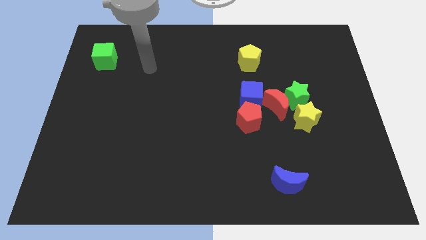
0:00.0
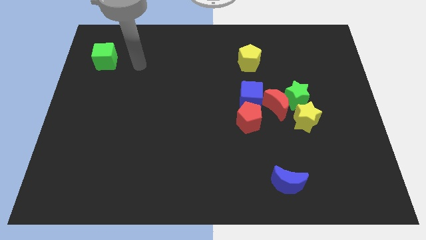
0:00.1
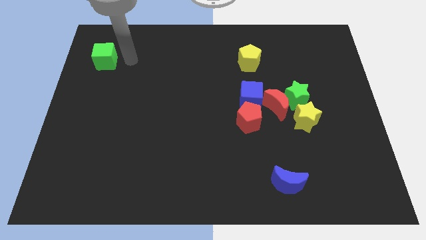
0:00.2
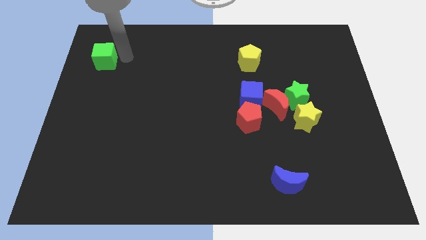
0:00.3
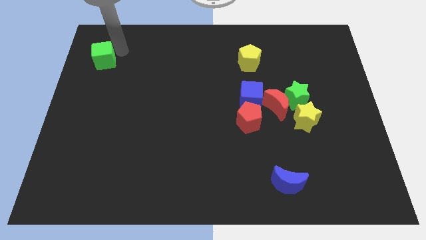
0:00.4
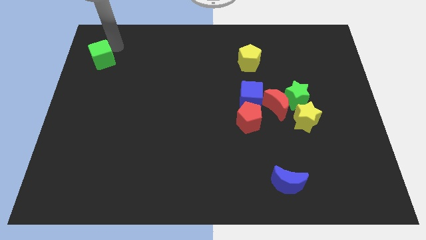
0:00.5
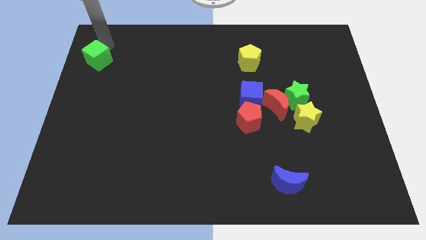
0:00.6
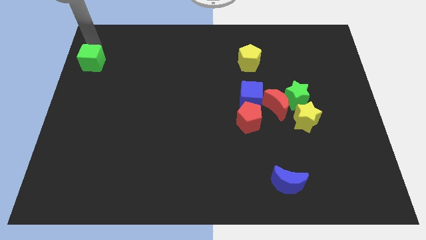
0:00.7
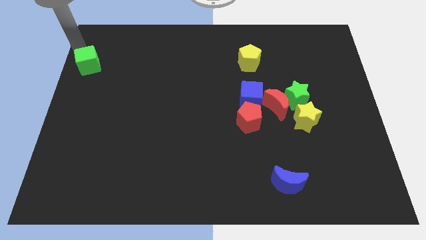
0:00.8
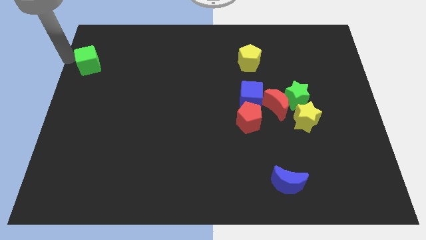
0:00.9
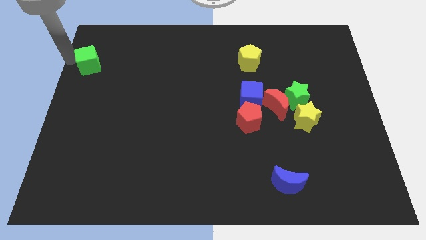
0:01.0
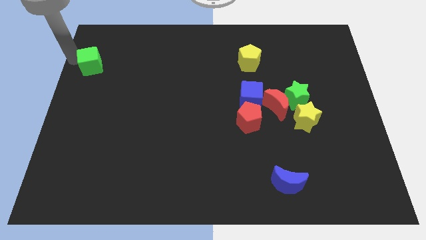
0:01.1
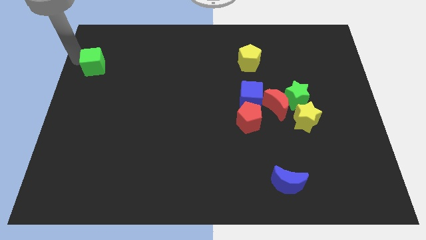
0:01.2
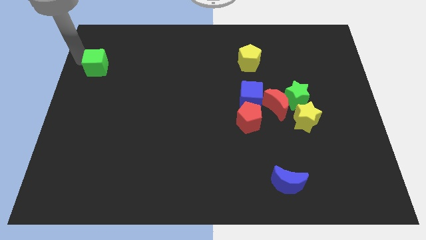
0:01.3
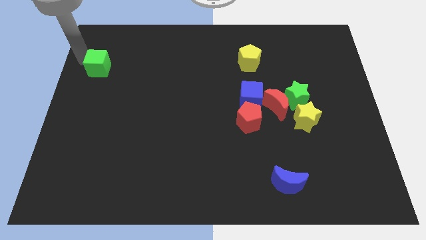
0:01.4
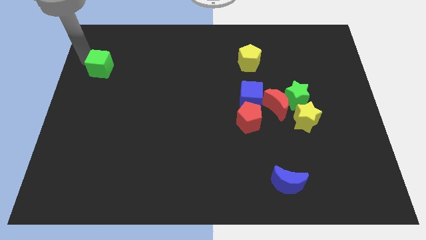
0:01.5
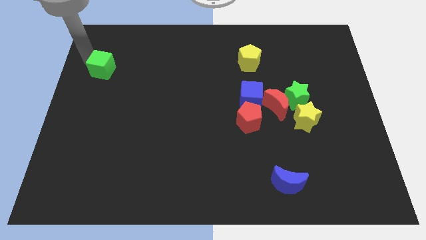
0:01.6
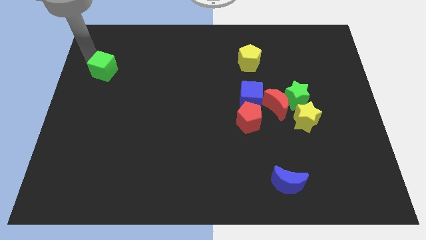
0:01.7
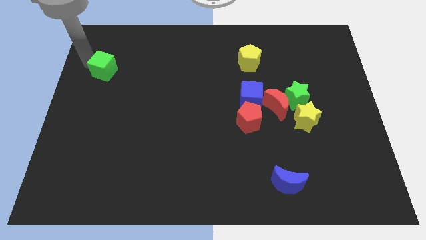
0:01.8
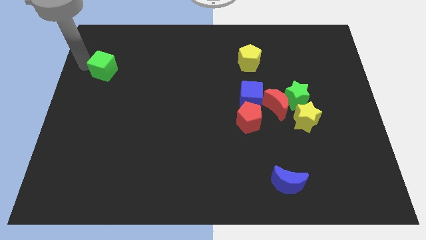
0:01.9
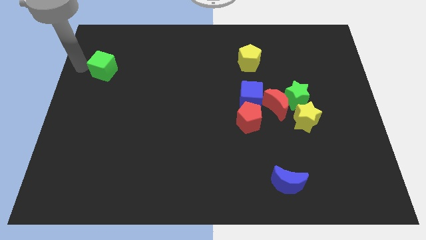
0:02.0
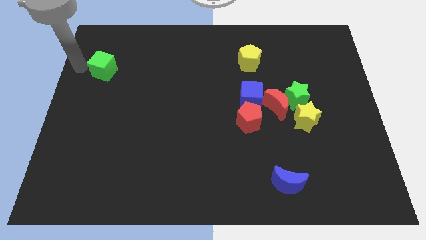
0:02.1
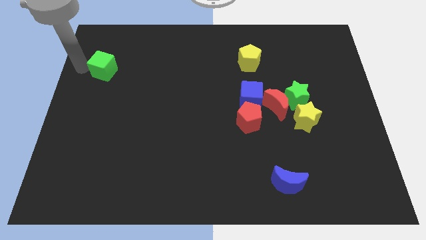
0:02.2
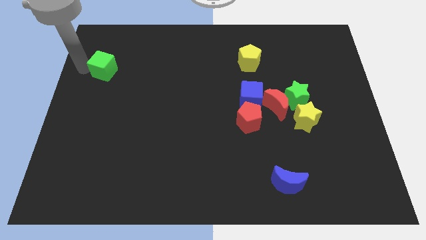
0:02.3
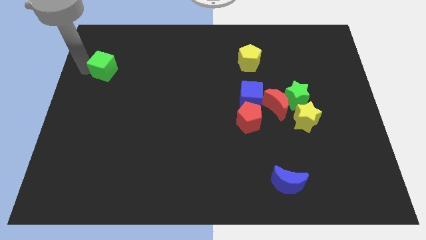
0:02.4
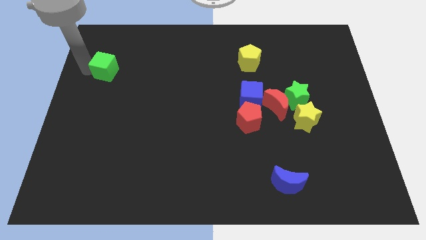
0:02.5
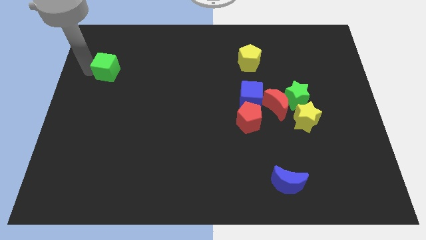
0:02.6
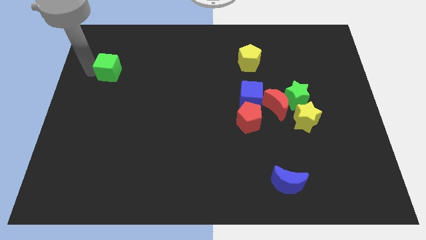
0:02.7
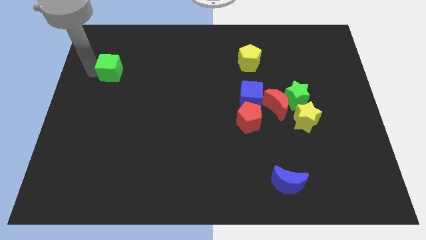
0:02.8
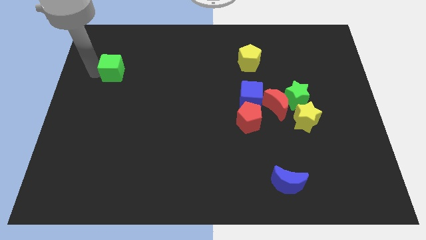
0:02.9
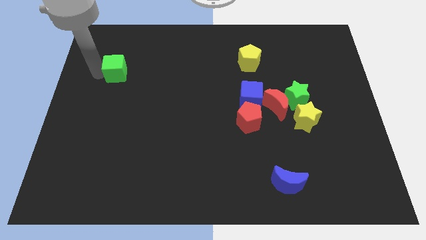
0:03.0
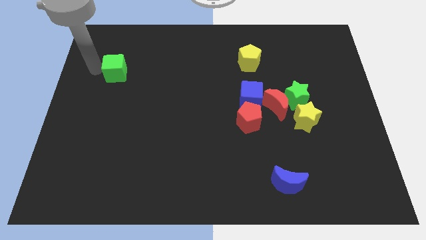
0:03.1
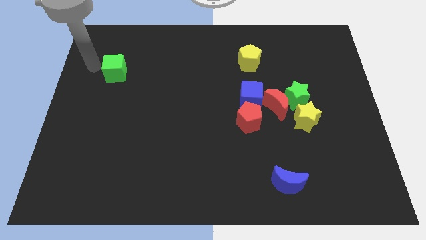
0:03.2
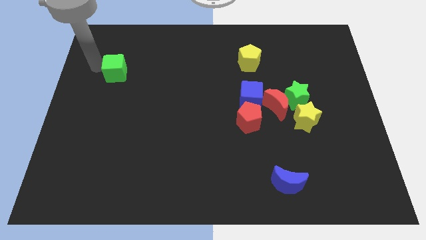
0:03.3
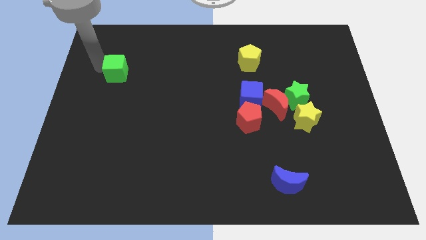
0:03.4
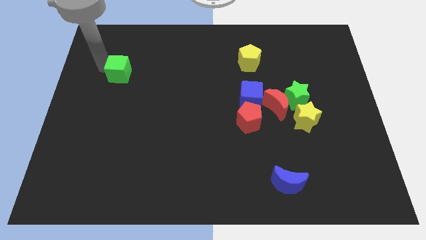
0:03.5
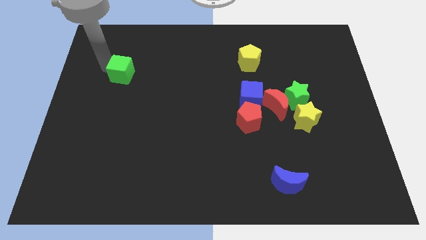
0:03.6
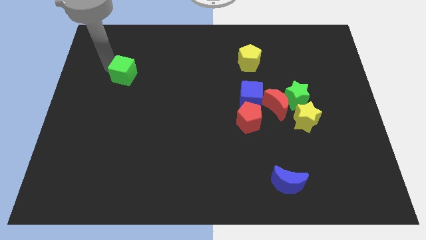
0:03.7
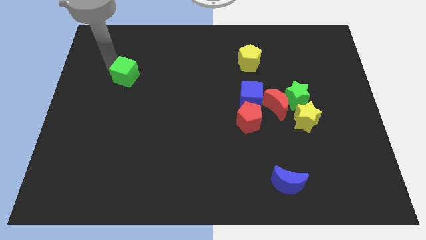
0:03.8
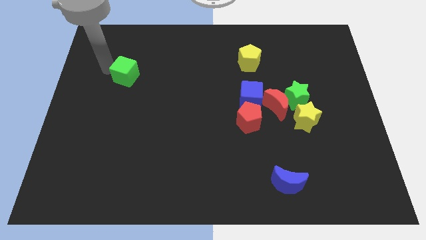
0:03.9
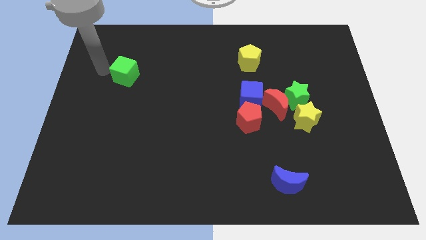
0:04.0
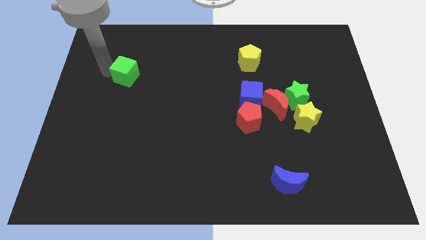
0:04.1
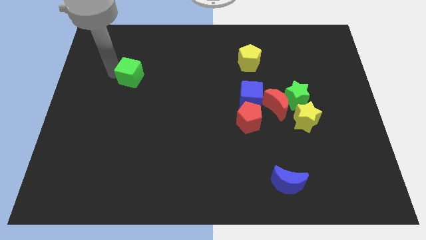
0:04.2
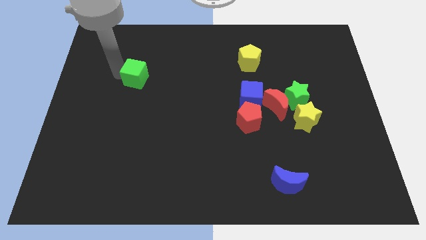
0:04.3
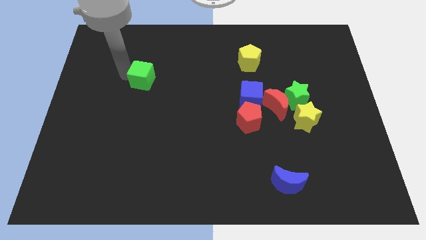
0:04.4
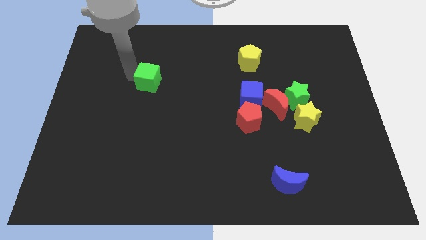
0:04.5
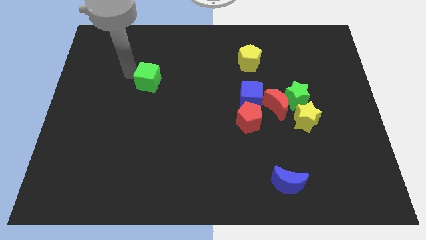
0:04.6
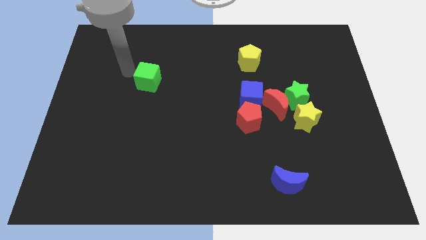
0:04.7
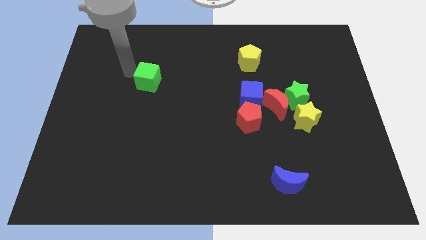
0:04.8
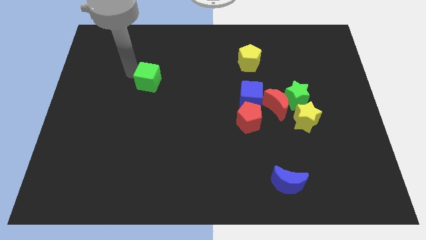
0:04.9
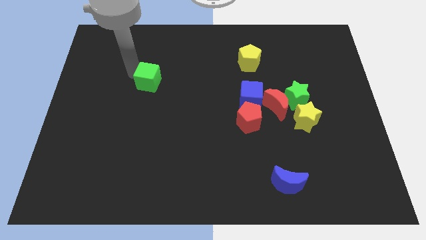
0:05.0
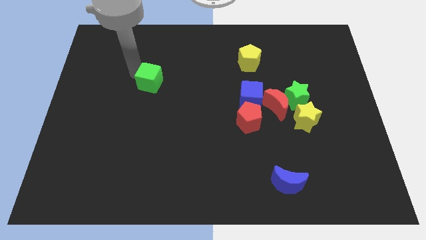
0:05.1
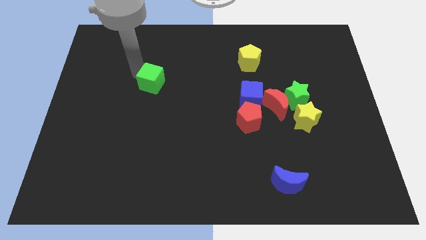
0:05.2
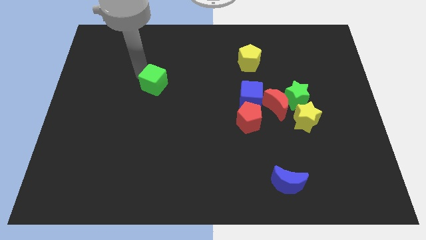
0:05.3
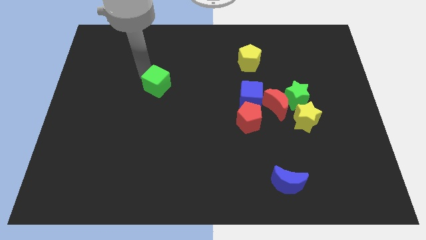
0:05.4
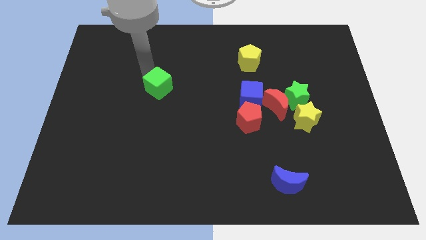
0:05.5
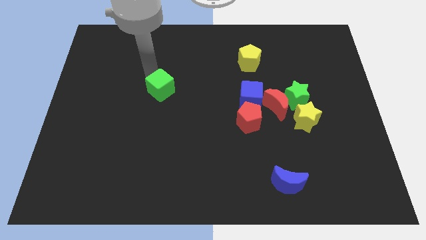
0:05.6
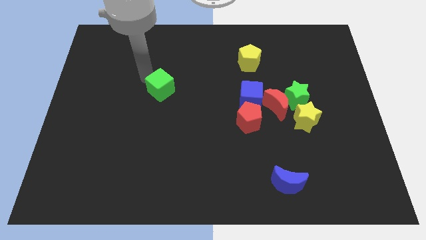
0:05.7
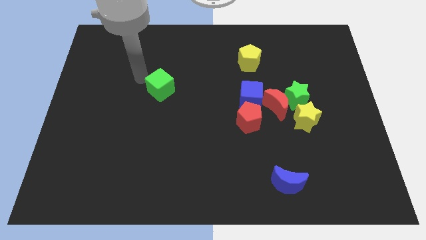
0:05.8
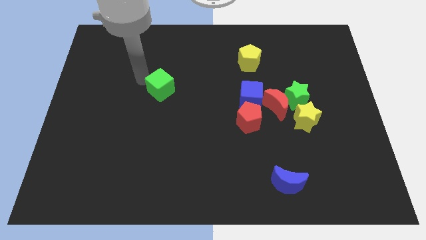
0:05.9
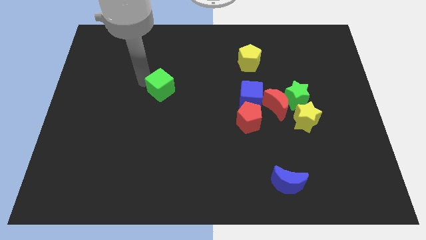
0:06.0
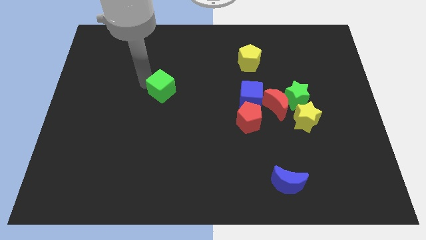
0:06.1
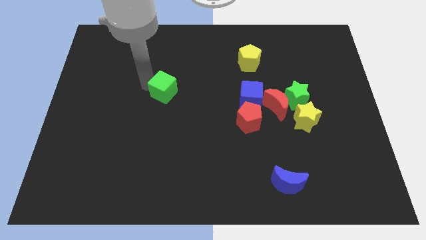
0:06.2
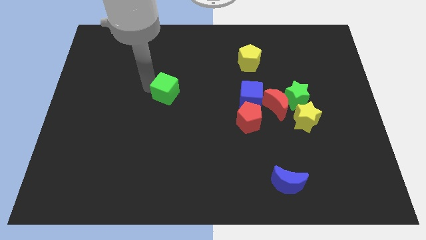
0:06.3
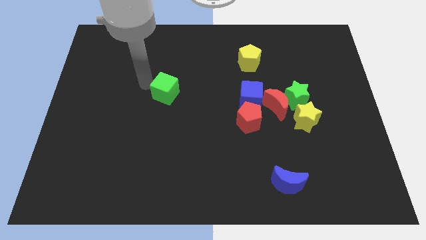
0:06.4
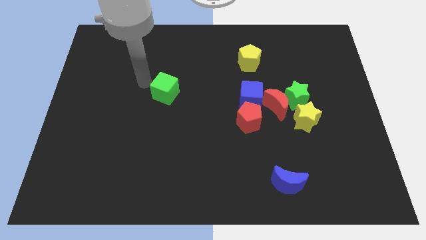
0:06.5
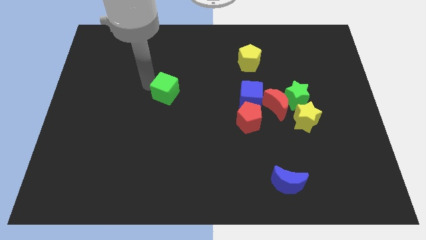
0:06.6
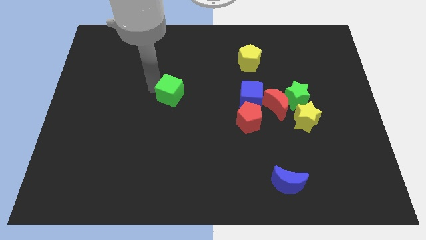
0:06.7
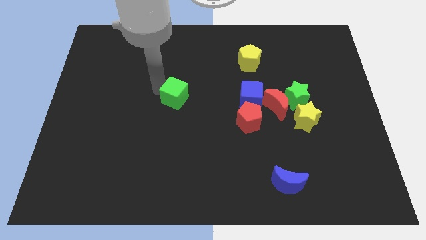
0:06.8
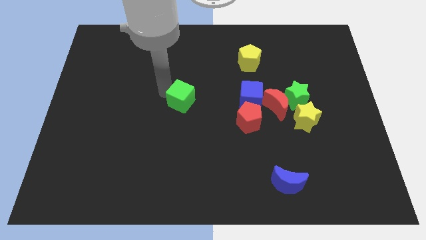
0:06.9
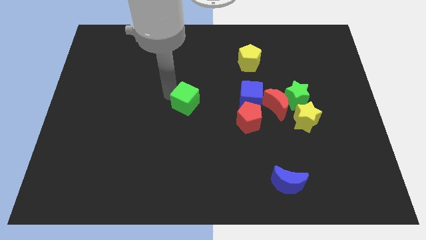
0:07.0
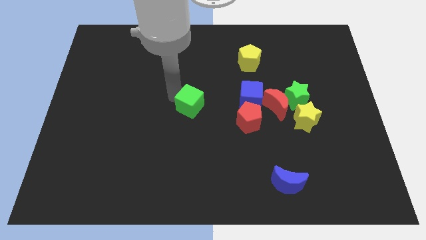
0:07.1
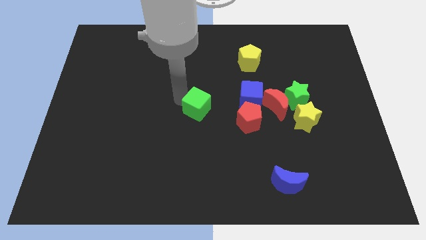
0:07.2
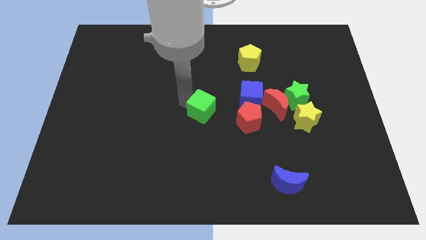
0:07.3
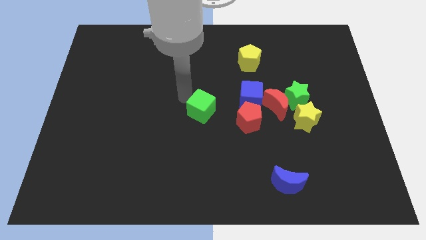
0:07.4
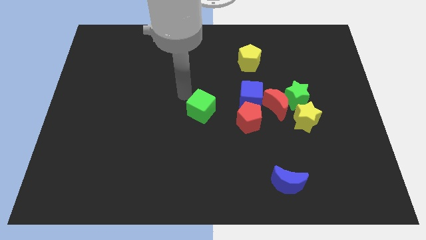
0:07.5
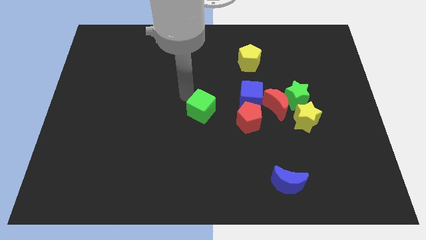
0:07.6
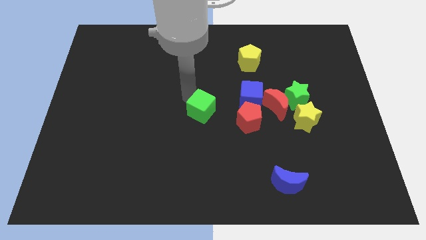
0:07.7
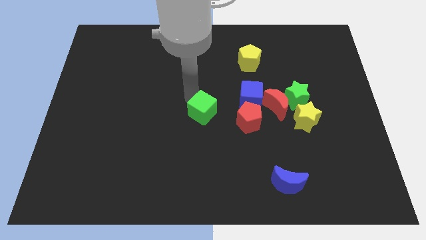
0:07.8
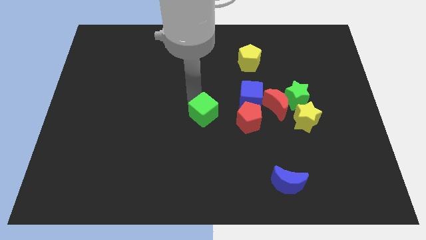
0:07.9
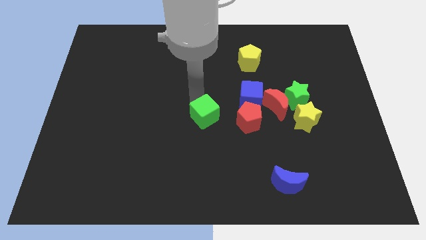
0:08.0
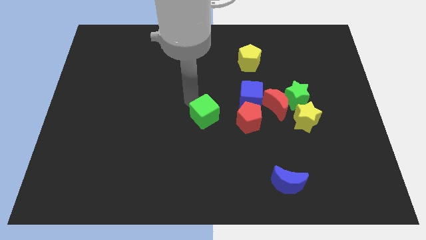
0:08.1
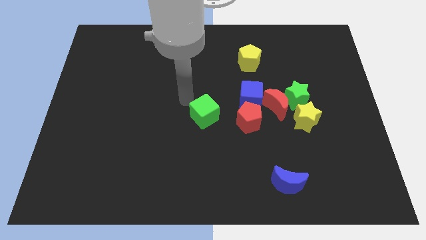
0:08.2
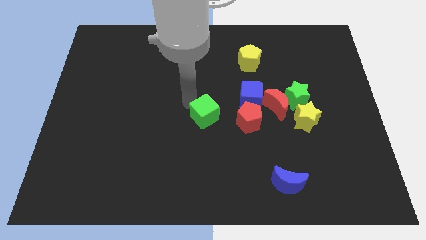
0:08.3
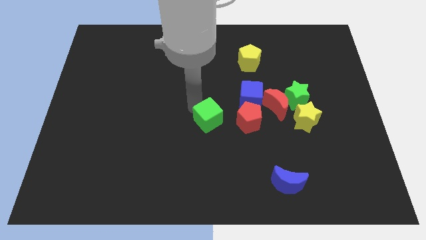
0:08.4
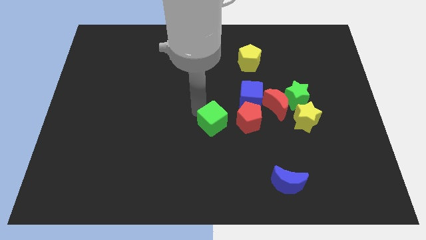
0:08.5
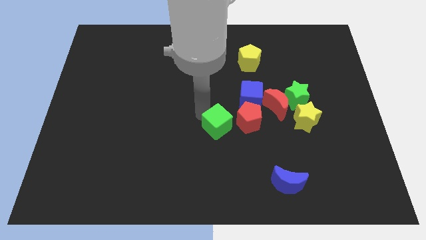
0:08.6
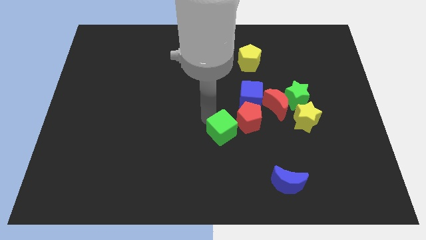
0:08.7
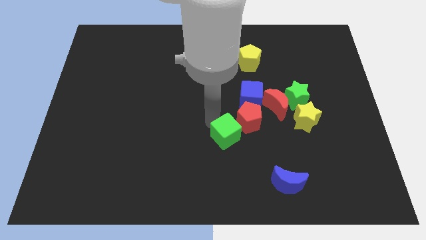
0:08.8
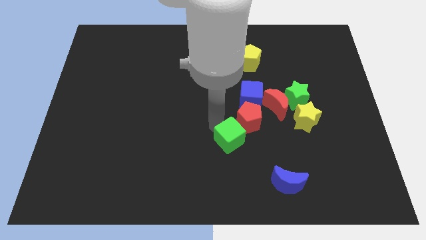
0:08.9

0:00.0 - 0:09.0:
move the green cube to the bottom of the red pentagon
